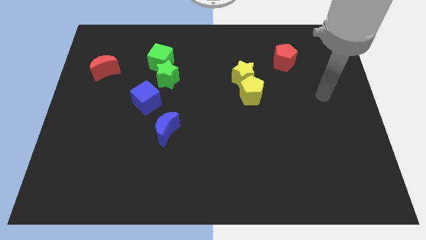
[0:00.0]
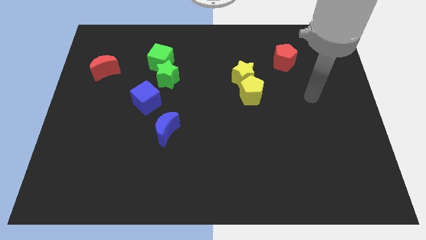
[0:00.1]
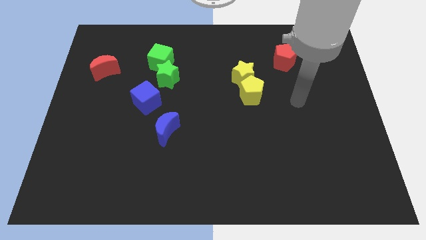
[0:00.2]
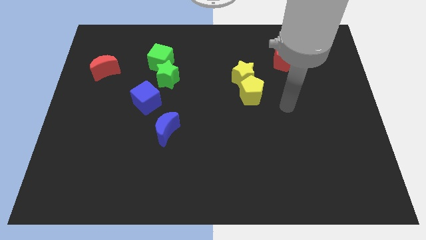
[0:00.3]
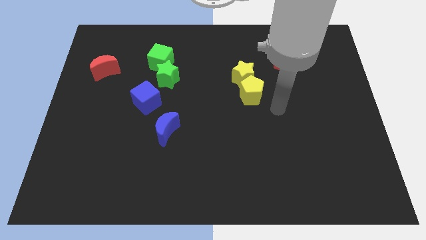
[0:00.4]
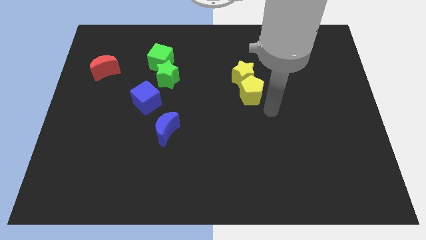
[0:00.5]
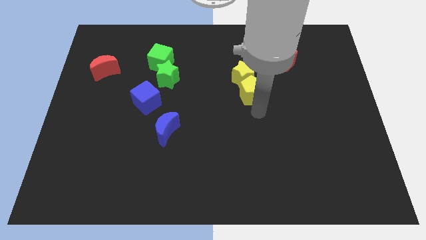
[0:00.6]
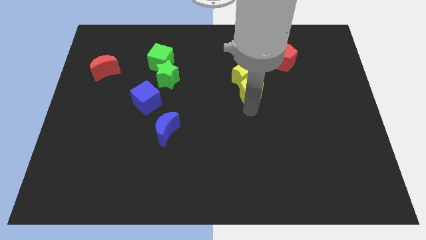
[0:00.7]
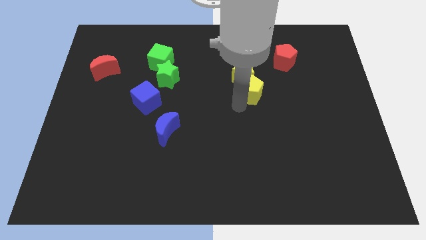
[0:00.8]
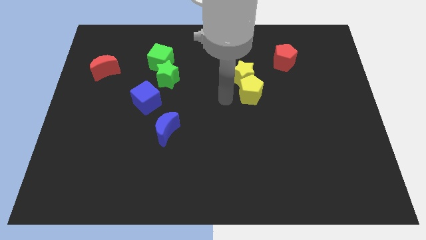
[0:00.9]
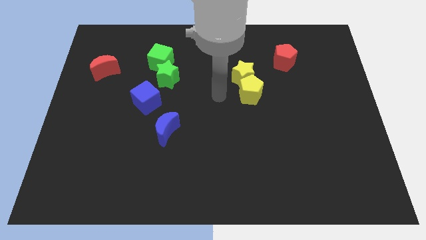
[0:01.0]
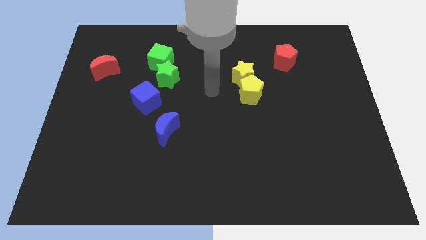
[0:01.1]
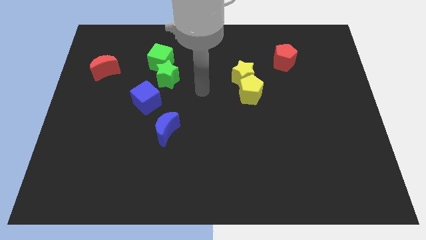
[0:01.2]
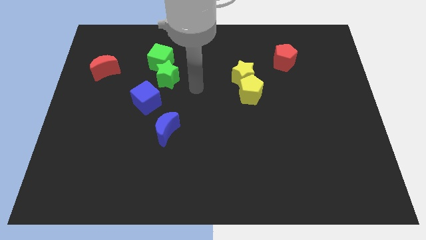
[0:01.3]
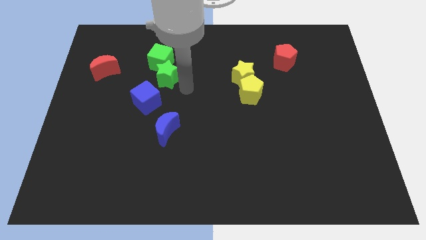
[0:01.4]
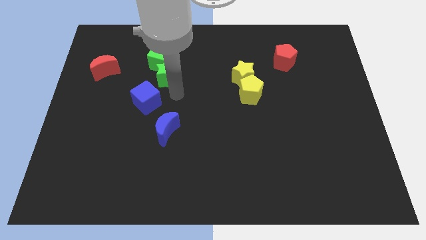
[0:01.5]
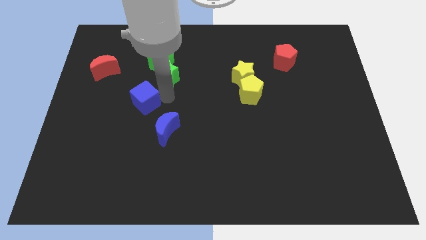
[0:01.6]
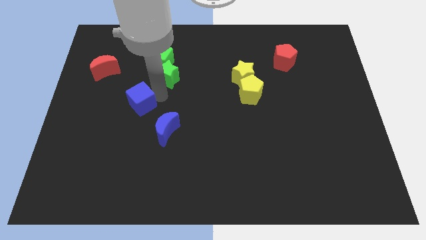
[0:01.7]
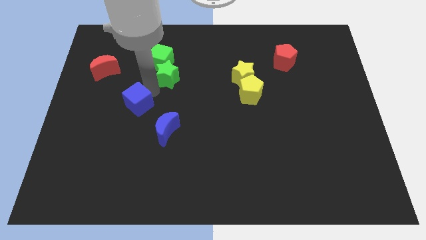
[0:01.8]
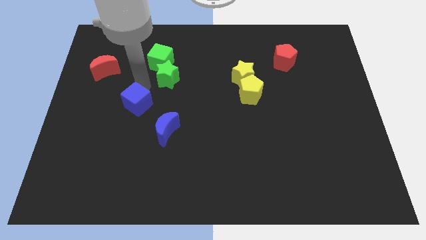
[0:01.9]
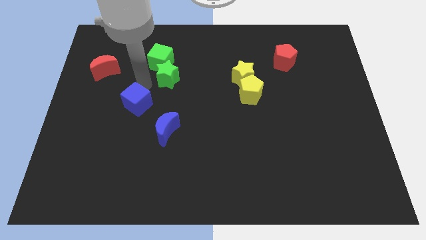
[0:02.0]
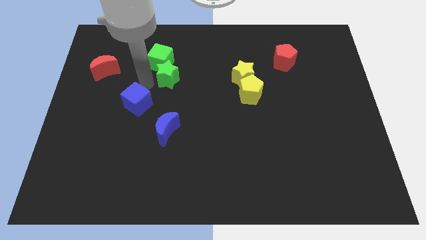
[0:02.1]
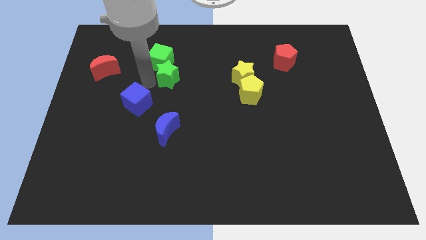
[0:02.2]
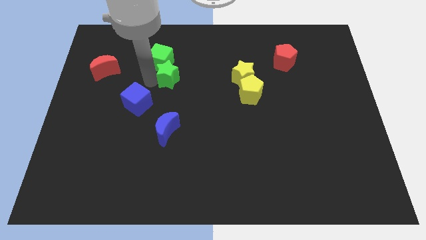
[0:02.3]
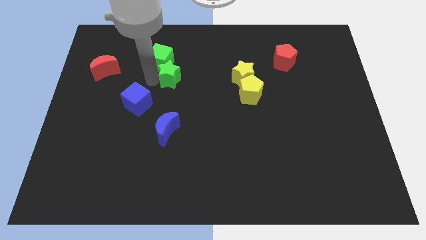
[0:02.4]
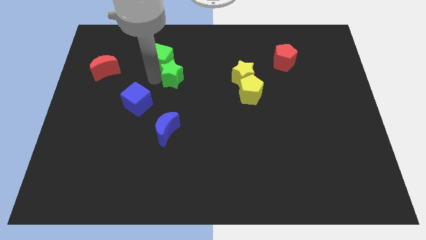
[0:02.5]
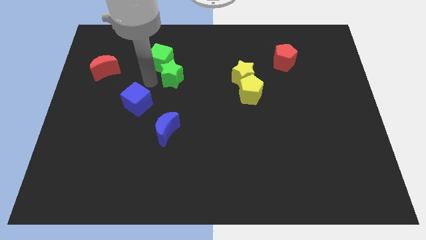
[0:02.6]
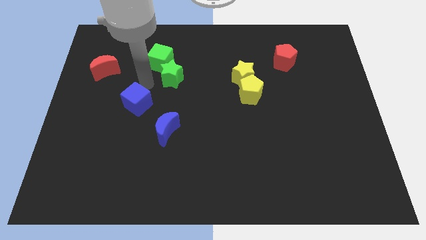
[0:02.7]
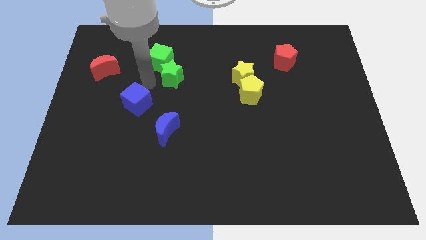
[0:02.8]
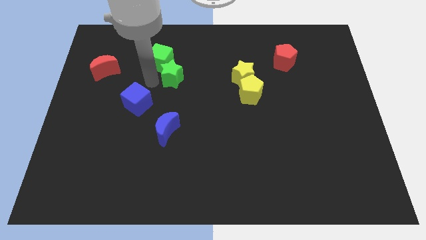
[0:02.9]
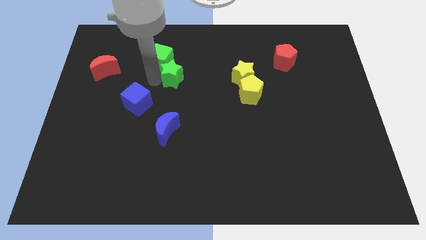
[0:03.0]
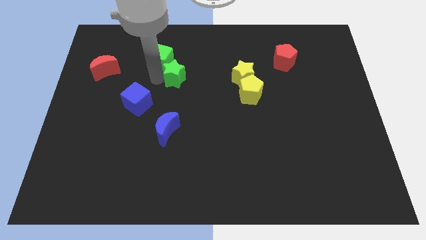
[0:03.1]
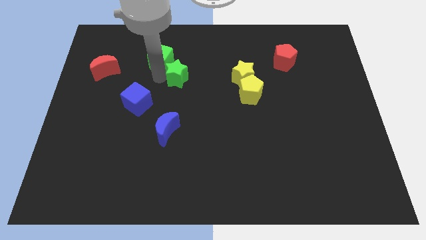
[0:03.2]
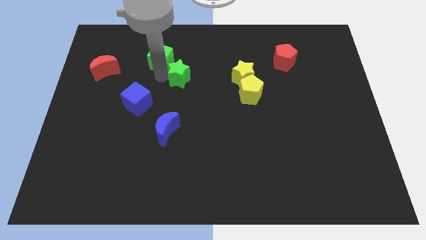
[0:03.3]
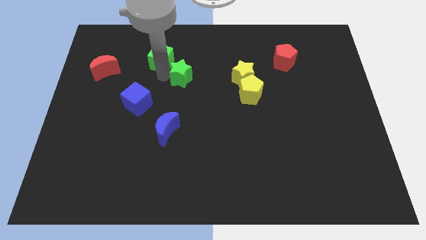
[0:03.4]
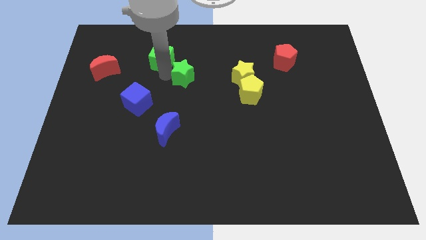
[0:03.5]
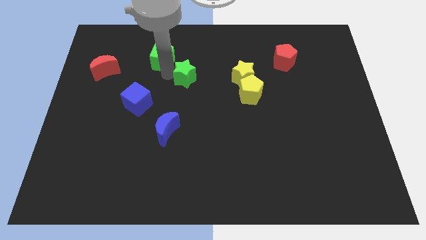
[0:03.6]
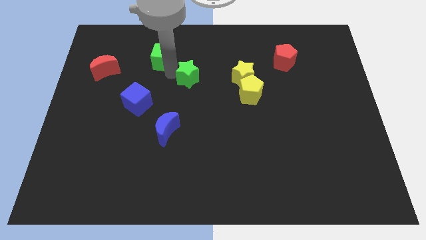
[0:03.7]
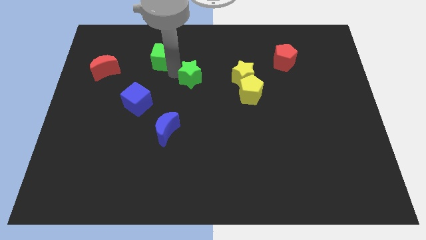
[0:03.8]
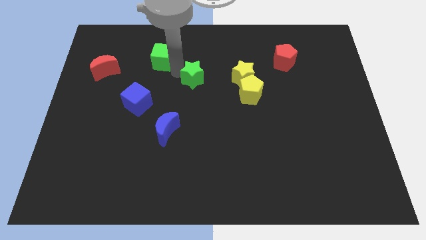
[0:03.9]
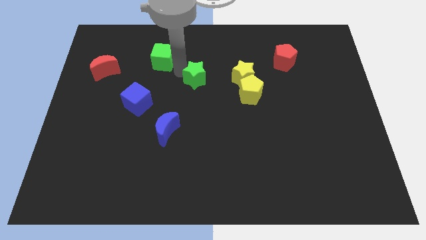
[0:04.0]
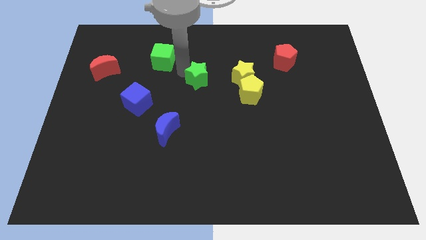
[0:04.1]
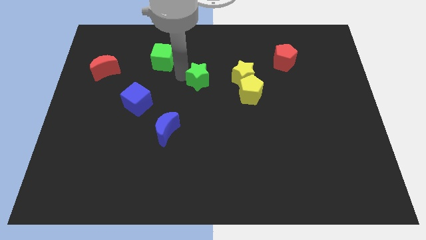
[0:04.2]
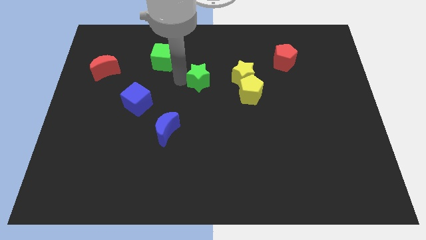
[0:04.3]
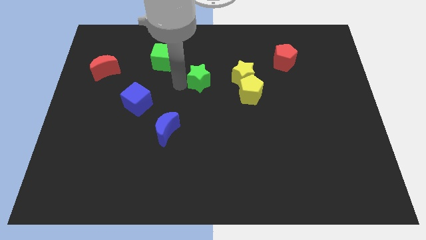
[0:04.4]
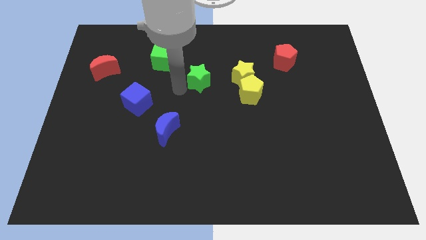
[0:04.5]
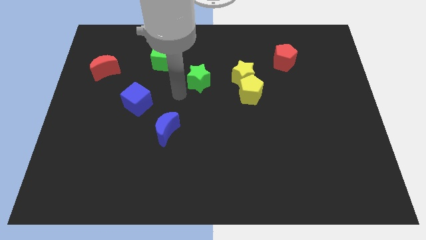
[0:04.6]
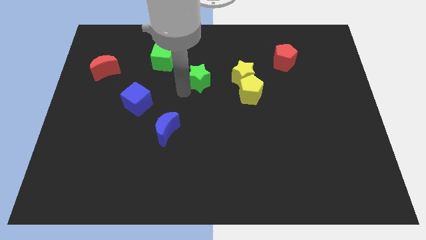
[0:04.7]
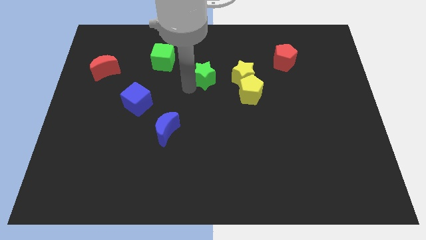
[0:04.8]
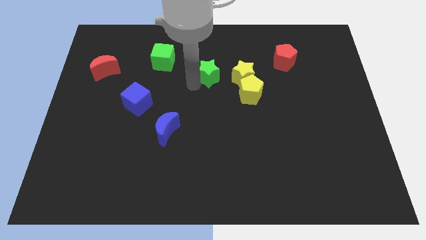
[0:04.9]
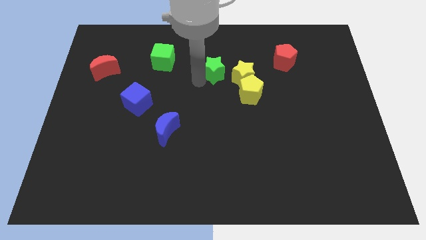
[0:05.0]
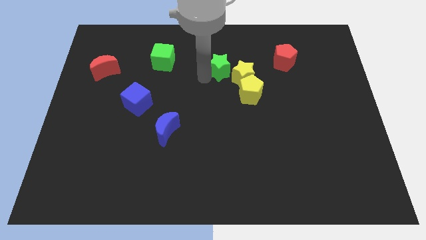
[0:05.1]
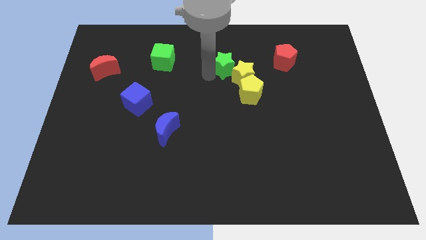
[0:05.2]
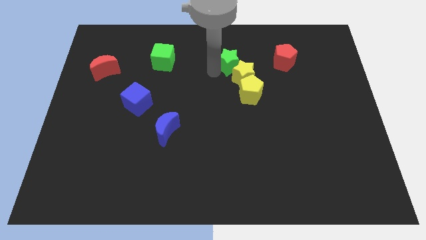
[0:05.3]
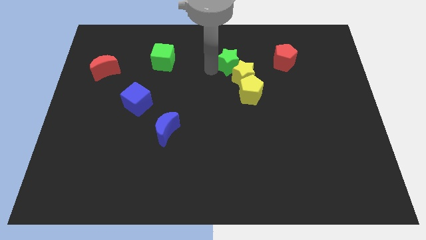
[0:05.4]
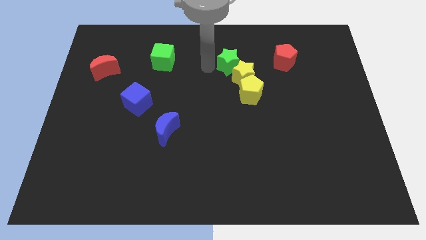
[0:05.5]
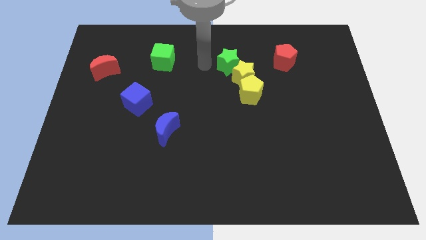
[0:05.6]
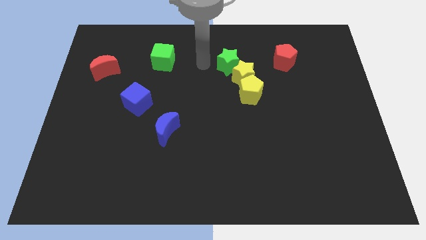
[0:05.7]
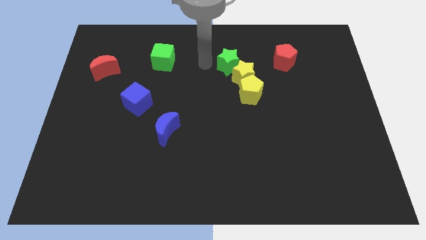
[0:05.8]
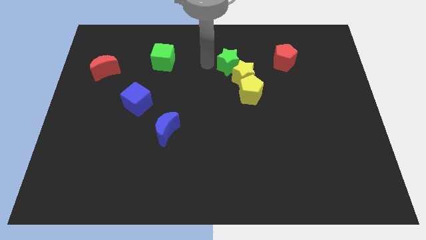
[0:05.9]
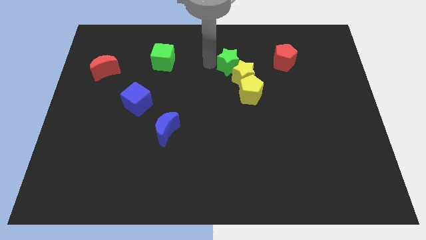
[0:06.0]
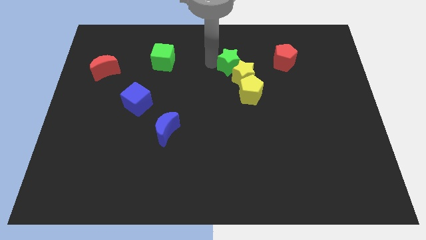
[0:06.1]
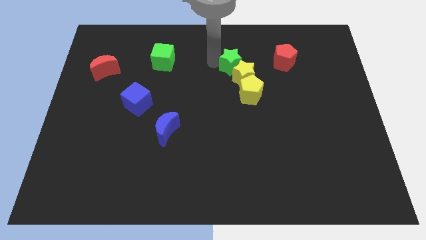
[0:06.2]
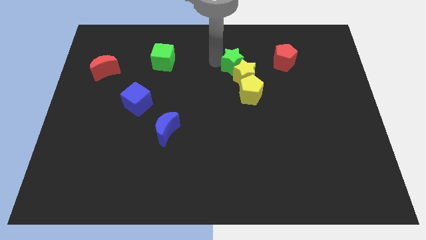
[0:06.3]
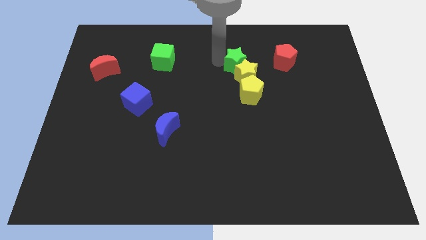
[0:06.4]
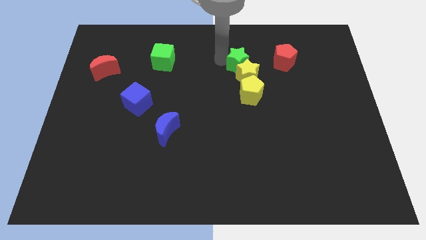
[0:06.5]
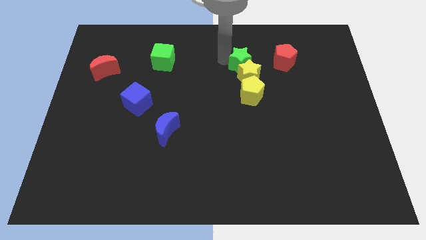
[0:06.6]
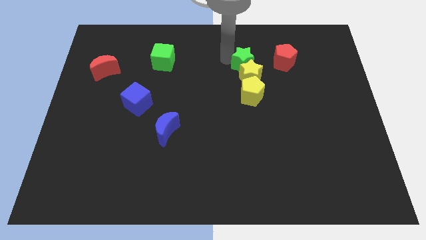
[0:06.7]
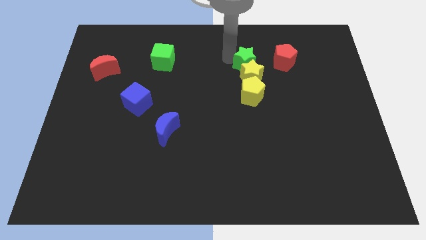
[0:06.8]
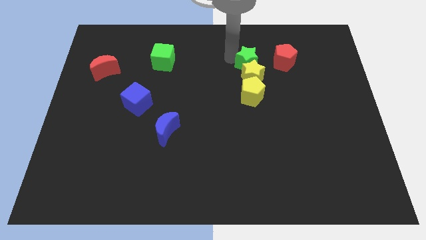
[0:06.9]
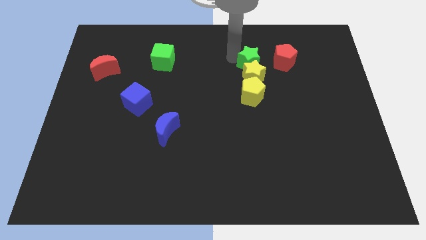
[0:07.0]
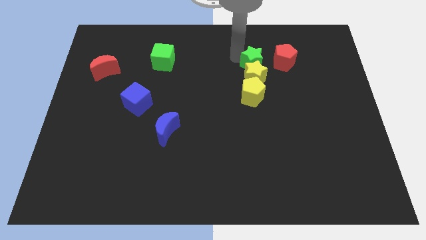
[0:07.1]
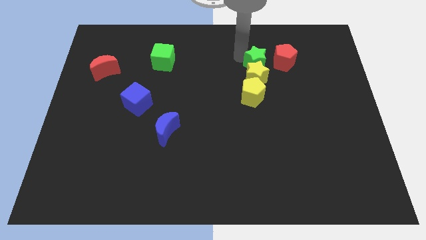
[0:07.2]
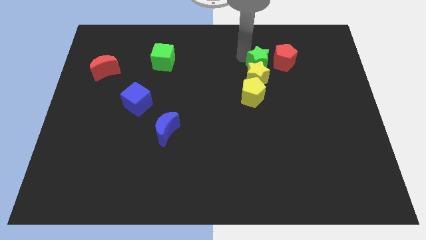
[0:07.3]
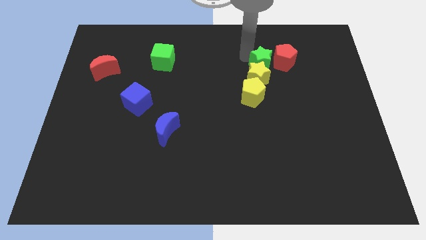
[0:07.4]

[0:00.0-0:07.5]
push the green star to the red pentagon
